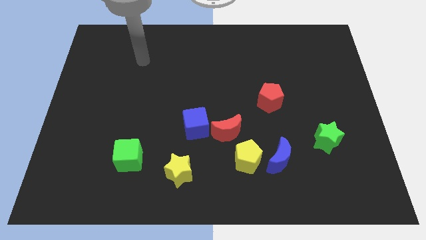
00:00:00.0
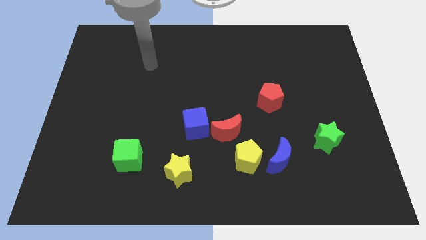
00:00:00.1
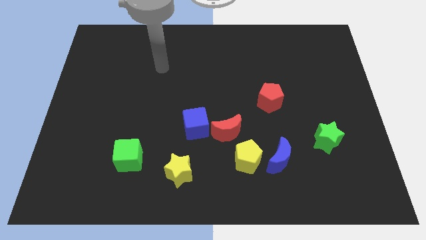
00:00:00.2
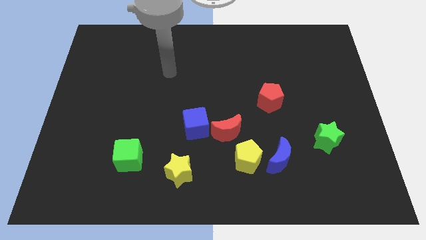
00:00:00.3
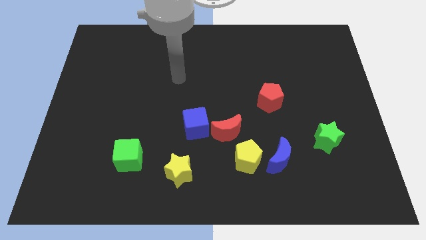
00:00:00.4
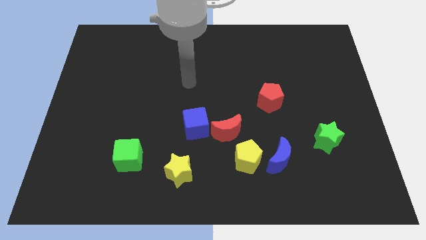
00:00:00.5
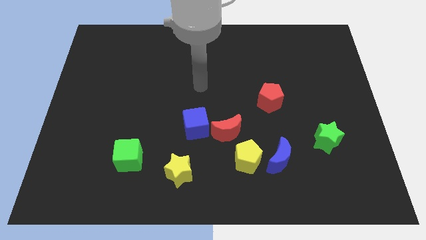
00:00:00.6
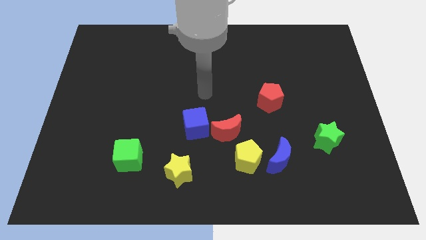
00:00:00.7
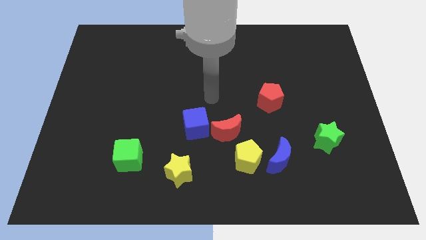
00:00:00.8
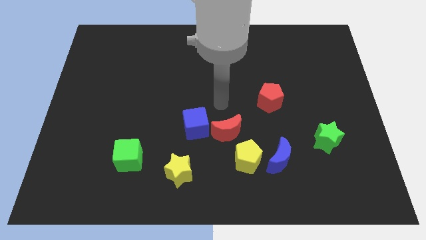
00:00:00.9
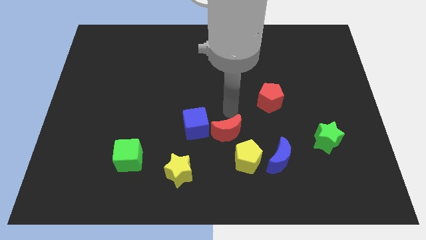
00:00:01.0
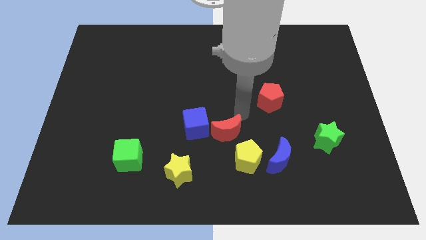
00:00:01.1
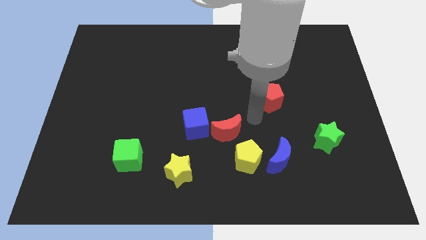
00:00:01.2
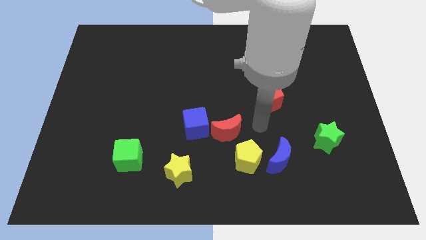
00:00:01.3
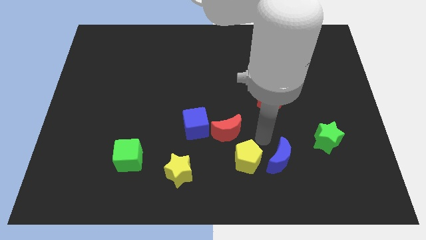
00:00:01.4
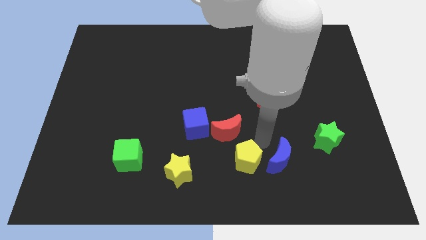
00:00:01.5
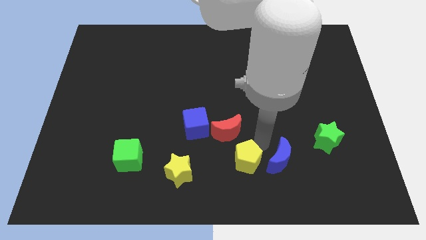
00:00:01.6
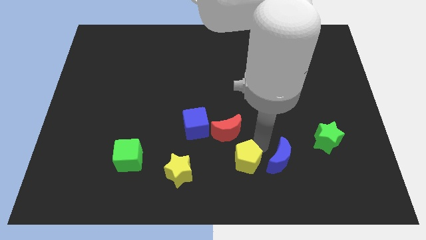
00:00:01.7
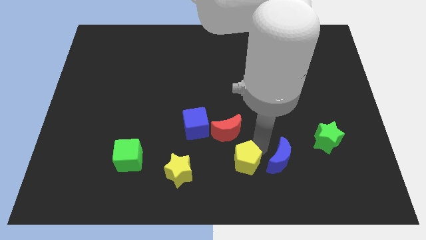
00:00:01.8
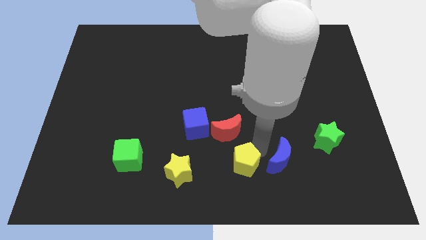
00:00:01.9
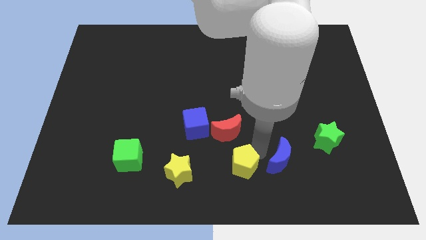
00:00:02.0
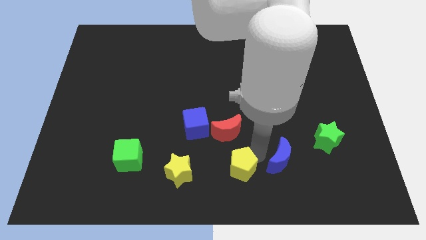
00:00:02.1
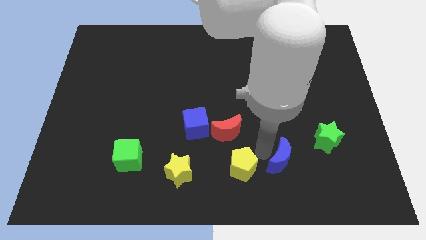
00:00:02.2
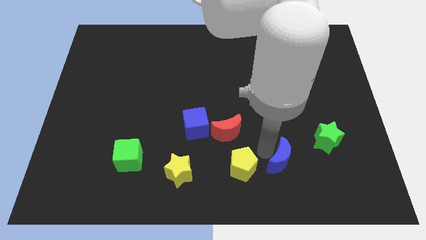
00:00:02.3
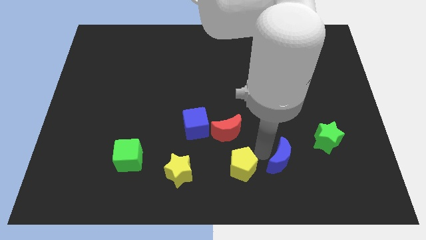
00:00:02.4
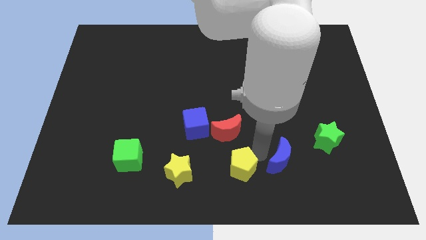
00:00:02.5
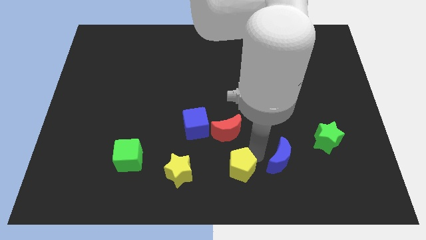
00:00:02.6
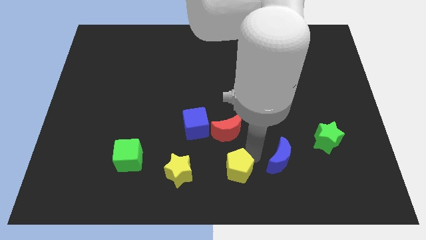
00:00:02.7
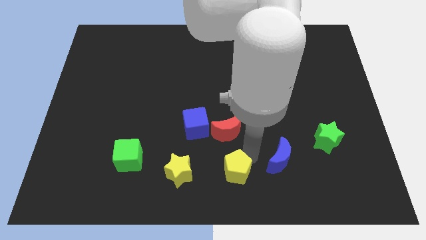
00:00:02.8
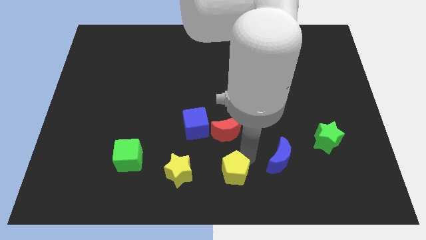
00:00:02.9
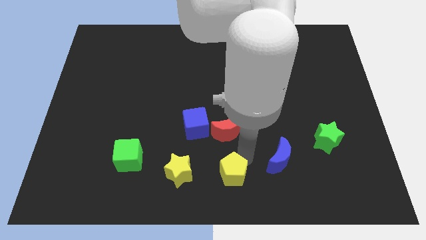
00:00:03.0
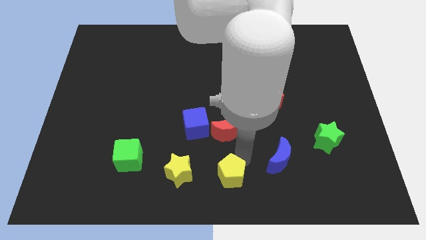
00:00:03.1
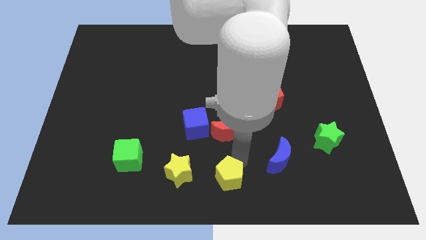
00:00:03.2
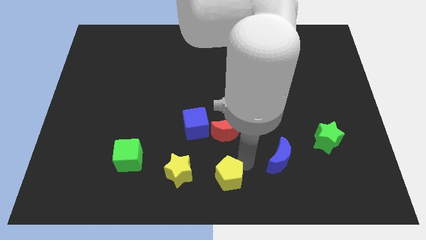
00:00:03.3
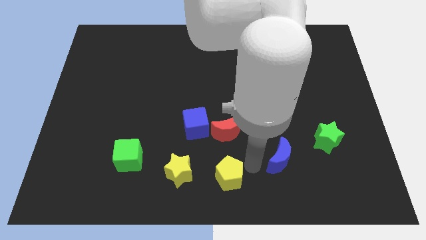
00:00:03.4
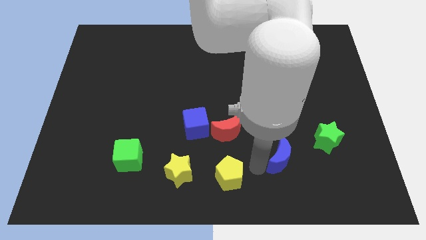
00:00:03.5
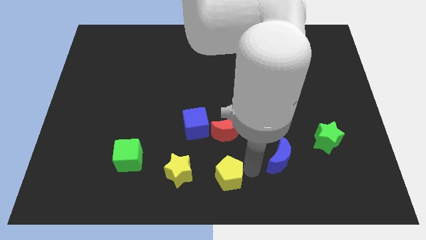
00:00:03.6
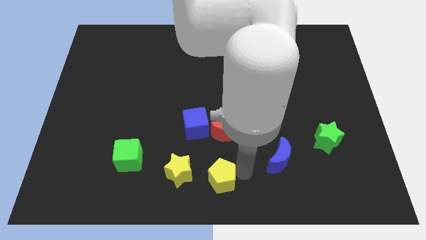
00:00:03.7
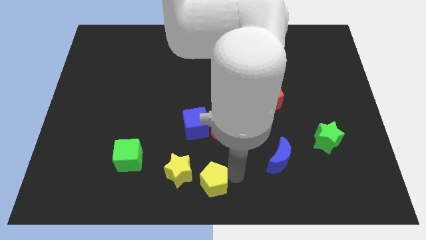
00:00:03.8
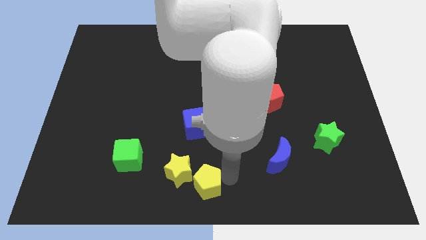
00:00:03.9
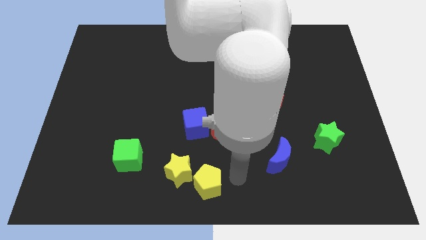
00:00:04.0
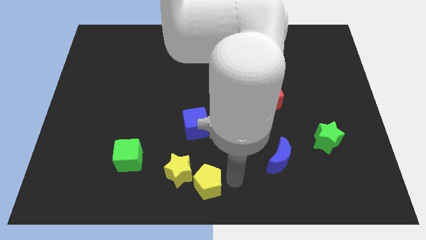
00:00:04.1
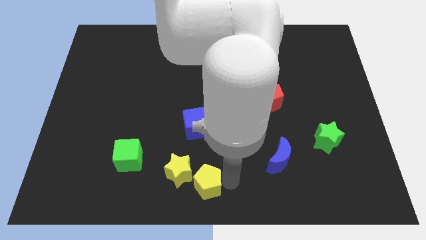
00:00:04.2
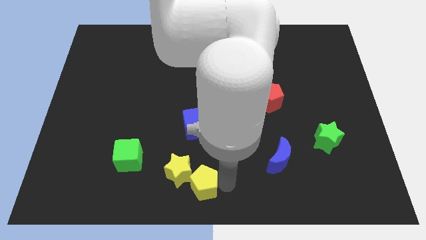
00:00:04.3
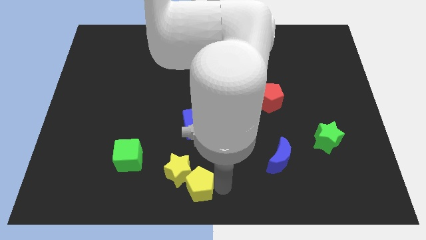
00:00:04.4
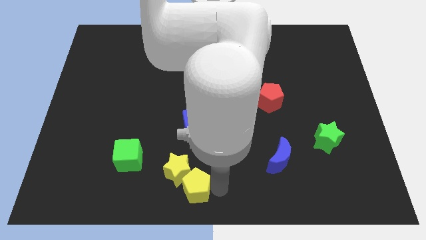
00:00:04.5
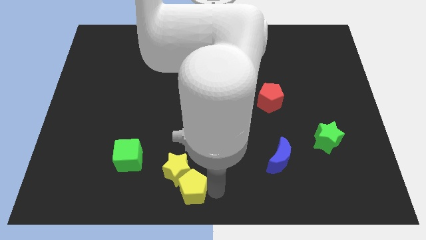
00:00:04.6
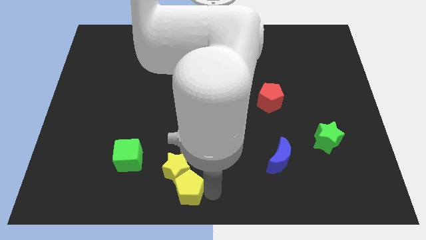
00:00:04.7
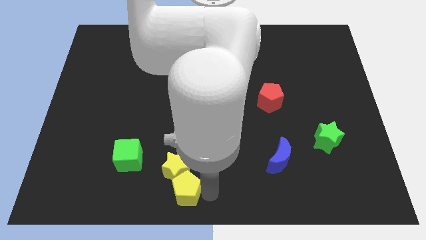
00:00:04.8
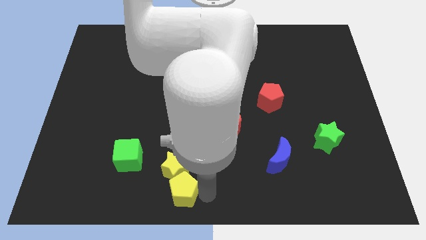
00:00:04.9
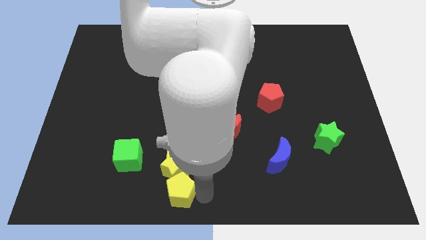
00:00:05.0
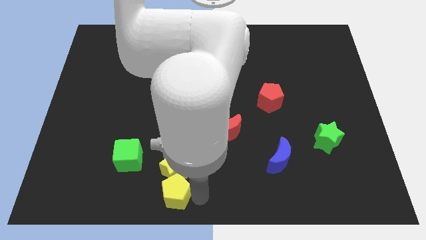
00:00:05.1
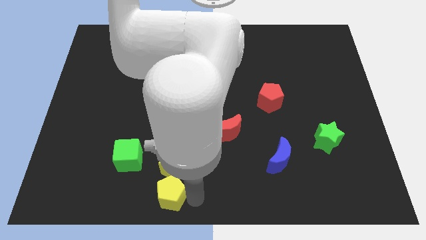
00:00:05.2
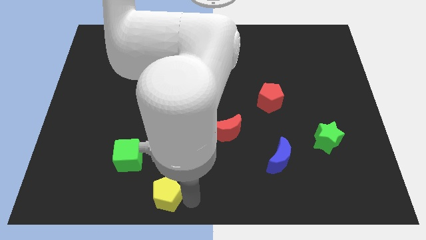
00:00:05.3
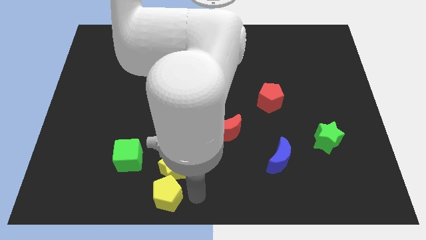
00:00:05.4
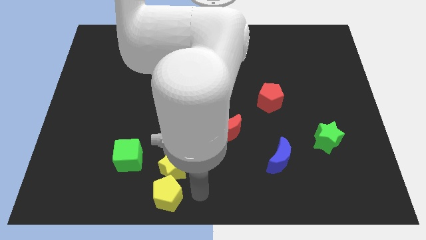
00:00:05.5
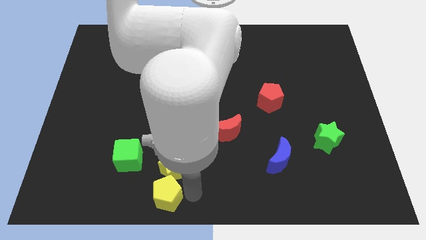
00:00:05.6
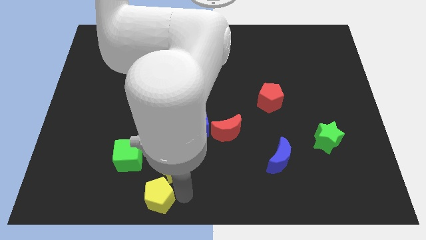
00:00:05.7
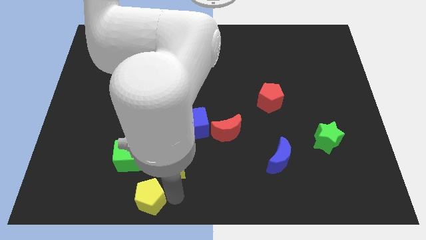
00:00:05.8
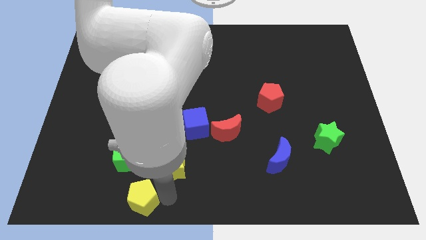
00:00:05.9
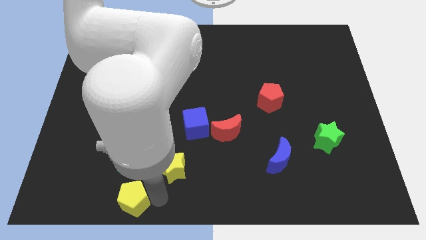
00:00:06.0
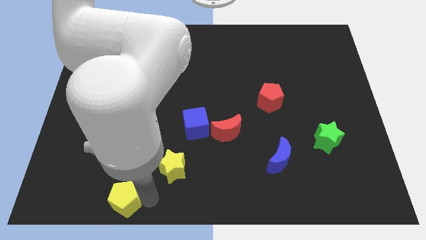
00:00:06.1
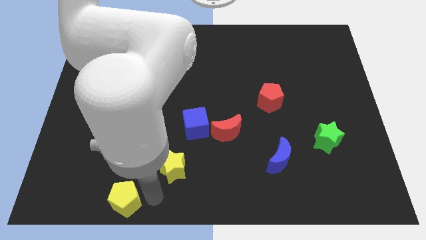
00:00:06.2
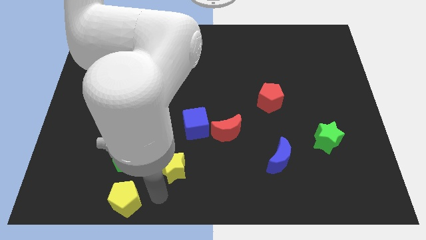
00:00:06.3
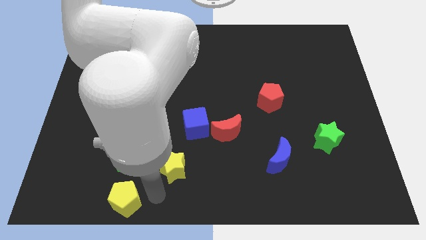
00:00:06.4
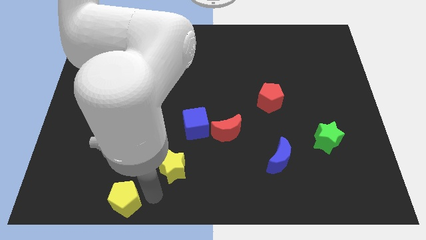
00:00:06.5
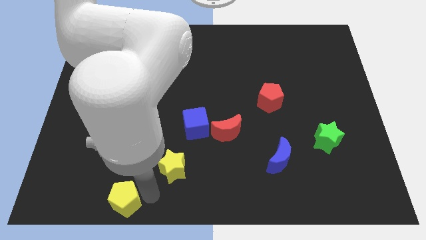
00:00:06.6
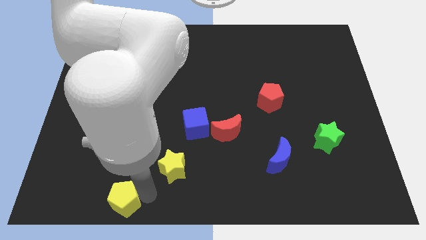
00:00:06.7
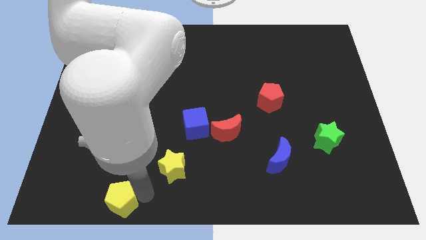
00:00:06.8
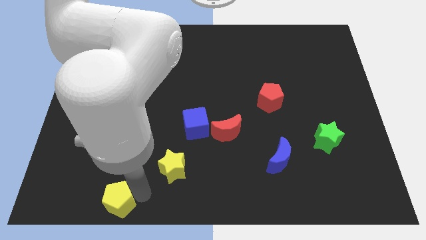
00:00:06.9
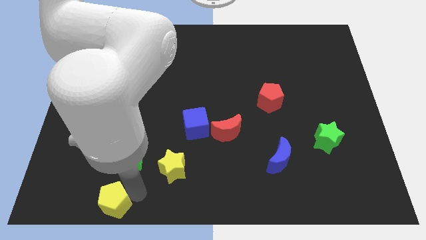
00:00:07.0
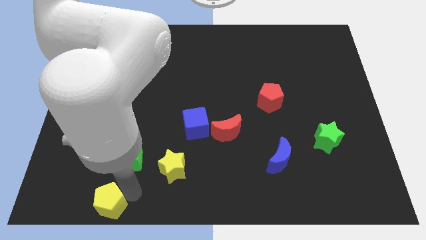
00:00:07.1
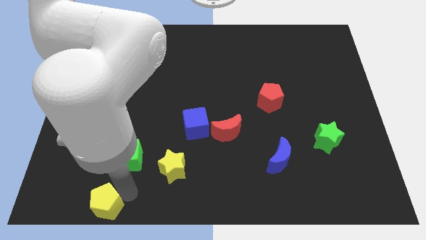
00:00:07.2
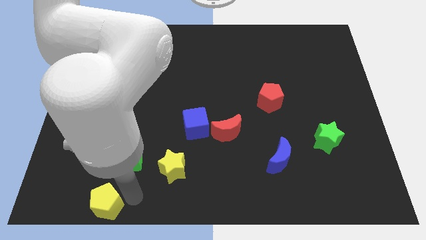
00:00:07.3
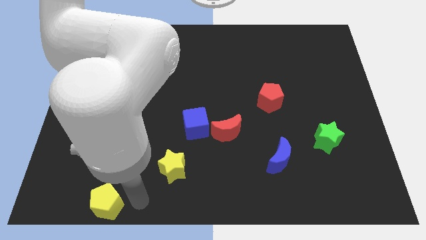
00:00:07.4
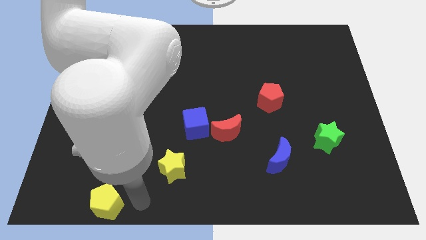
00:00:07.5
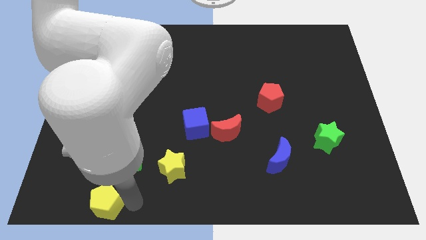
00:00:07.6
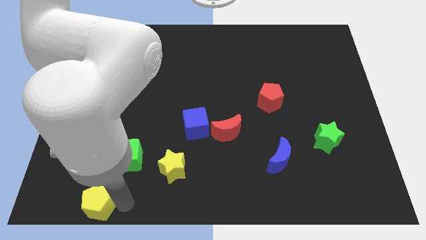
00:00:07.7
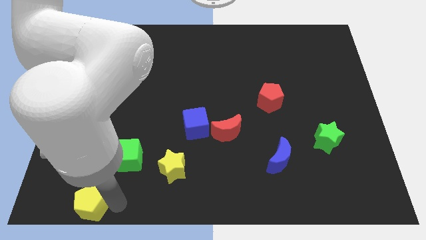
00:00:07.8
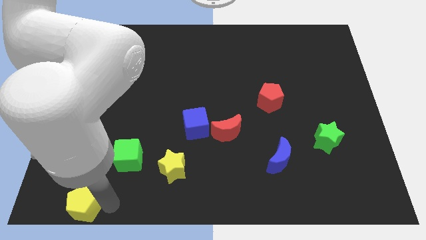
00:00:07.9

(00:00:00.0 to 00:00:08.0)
put the yellow pentagon to the bottom left
